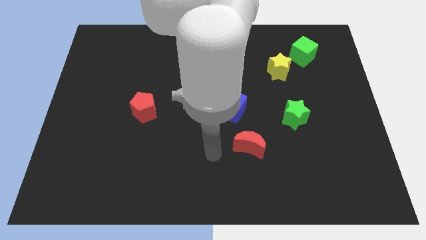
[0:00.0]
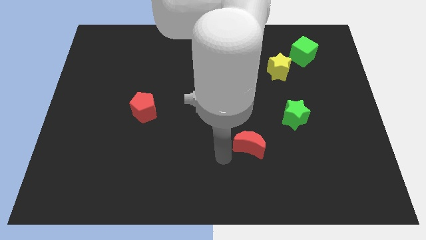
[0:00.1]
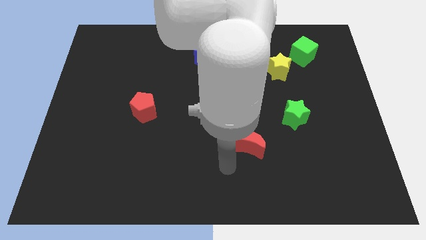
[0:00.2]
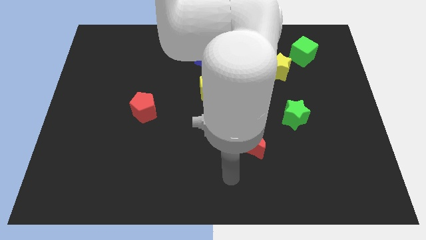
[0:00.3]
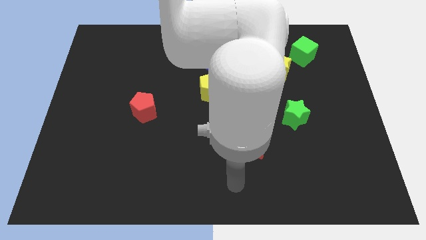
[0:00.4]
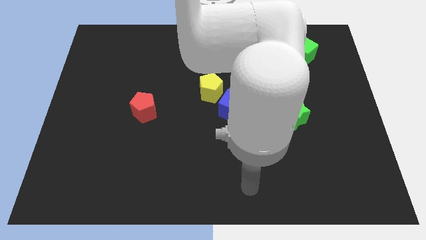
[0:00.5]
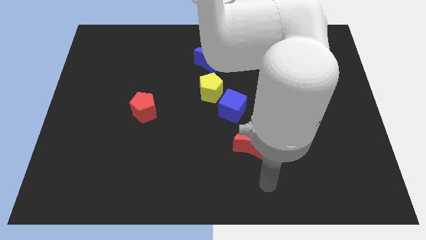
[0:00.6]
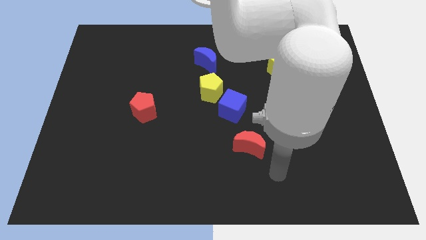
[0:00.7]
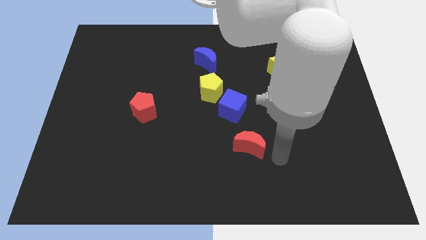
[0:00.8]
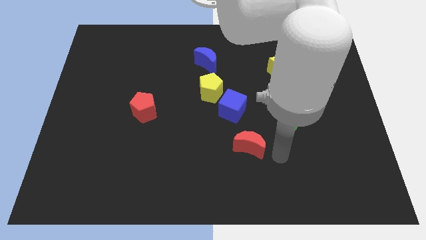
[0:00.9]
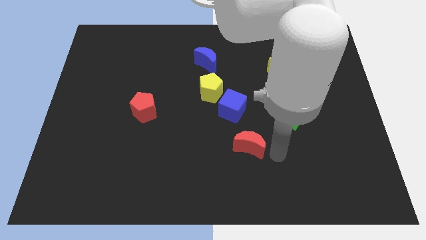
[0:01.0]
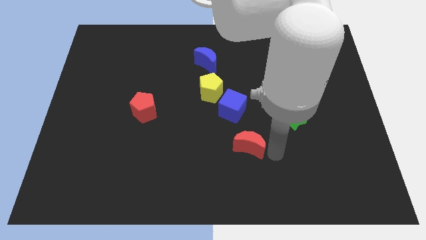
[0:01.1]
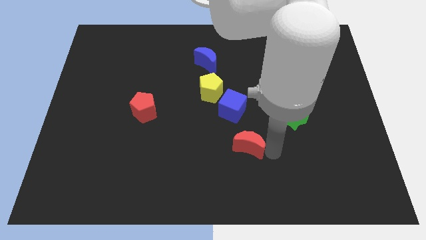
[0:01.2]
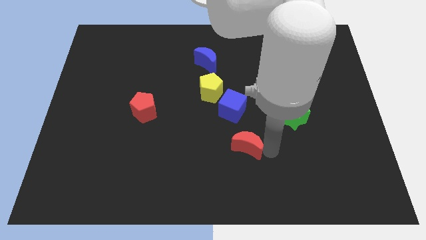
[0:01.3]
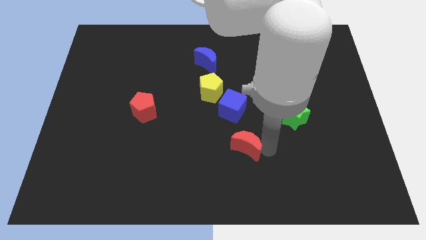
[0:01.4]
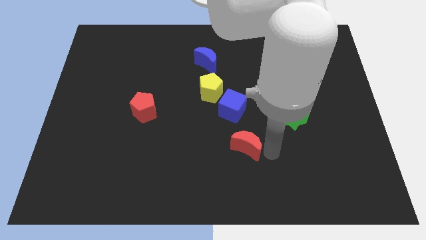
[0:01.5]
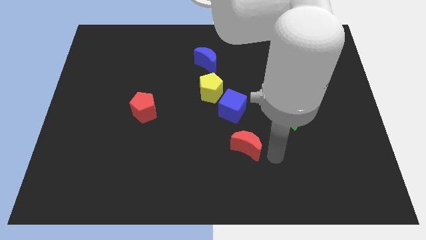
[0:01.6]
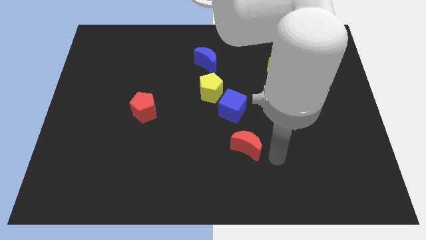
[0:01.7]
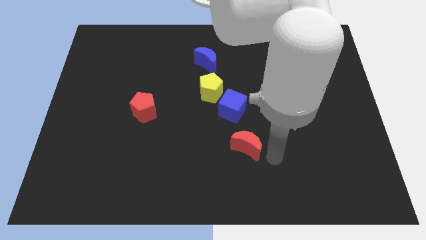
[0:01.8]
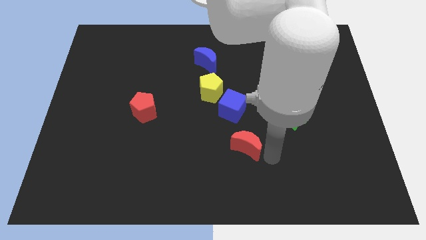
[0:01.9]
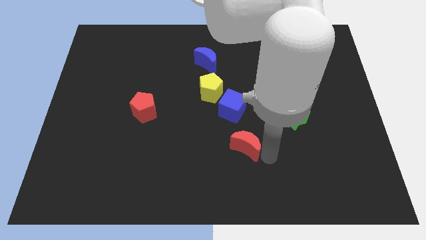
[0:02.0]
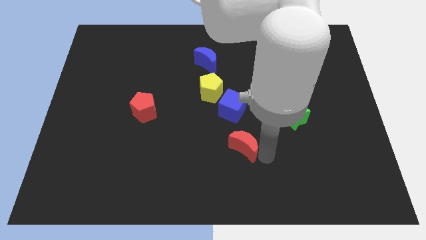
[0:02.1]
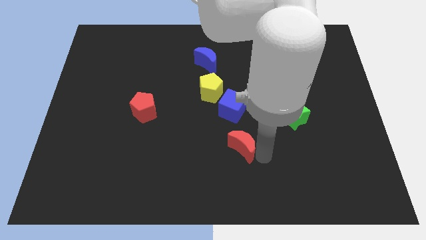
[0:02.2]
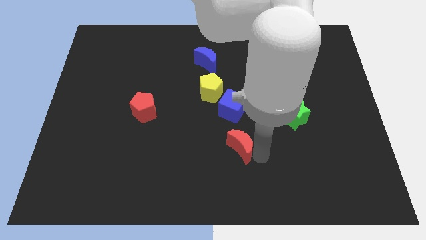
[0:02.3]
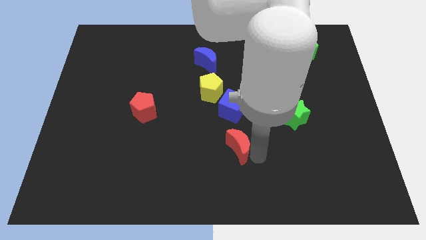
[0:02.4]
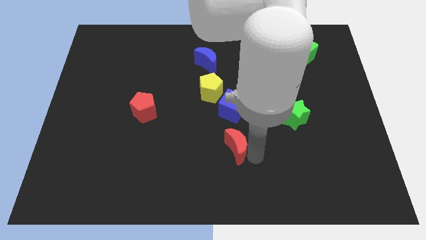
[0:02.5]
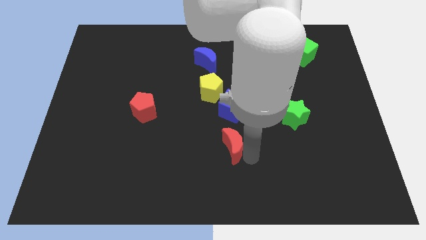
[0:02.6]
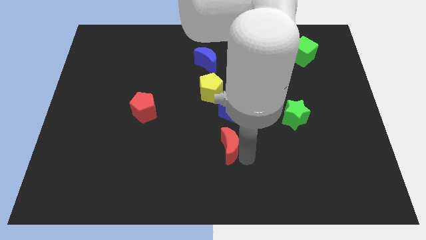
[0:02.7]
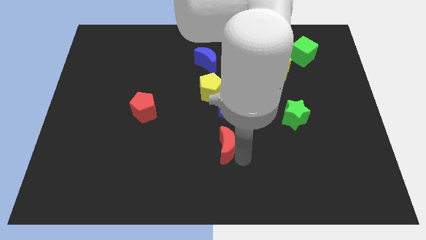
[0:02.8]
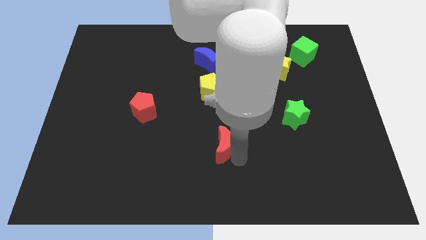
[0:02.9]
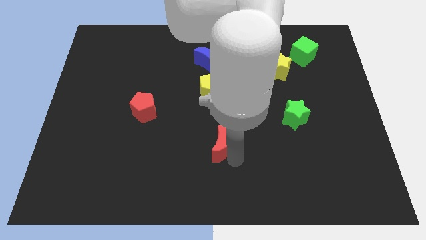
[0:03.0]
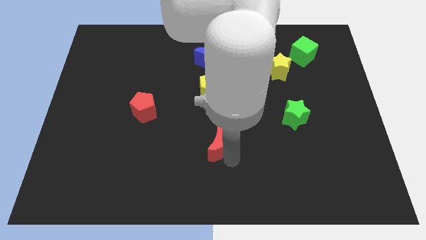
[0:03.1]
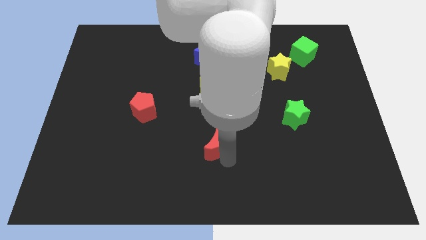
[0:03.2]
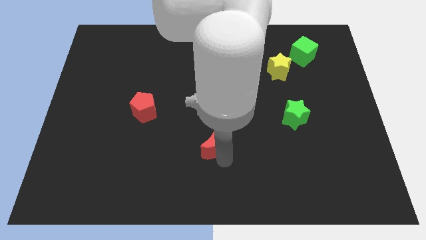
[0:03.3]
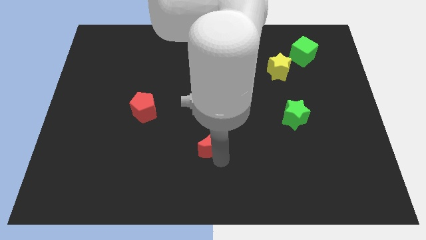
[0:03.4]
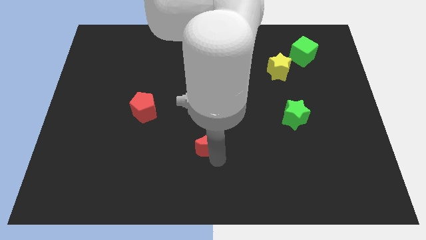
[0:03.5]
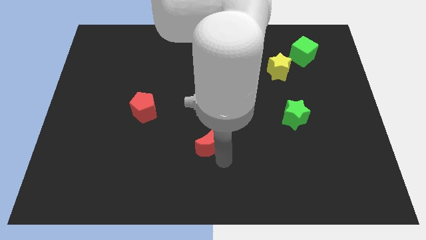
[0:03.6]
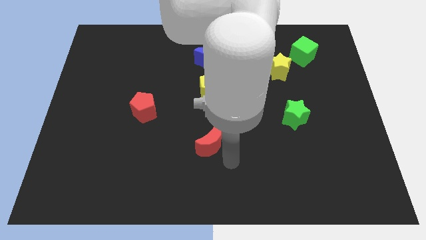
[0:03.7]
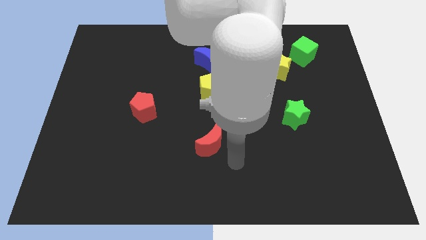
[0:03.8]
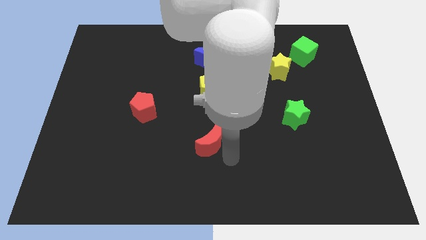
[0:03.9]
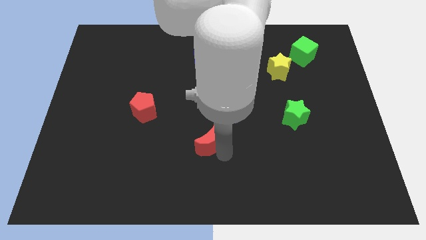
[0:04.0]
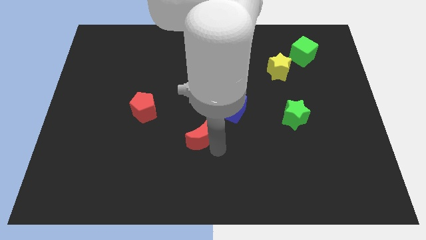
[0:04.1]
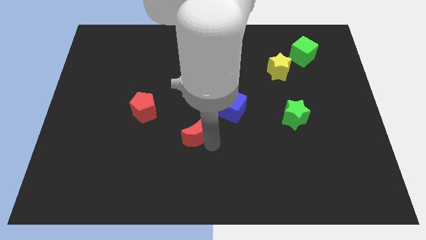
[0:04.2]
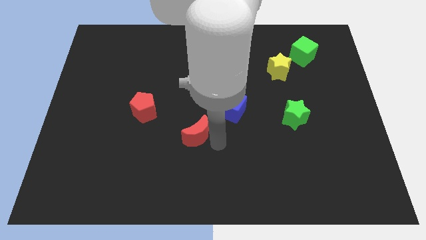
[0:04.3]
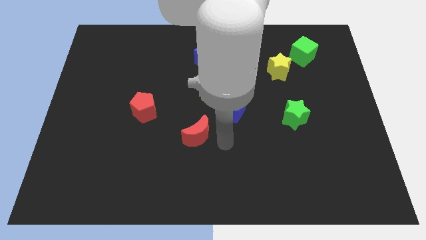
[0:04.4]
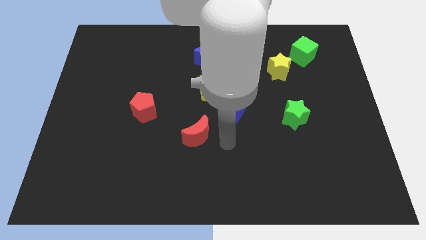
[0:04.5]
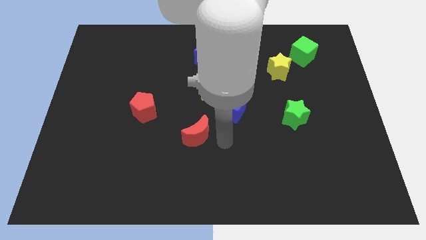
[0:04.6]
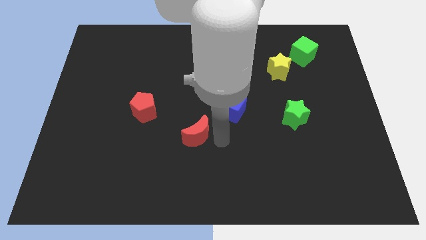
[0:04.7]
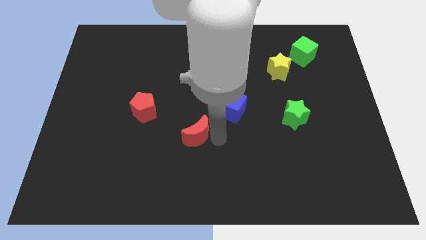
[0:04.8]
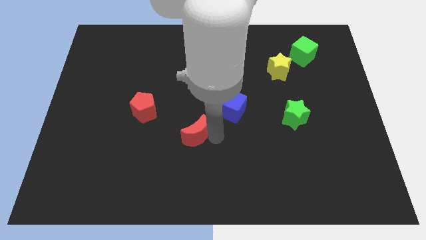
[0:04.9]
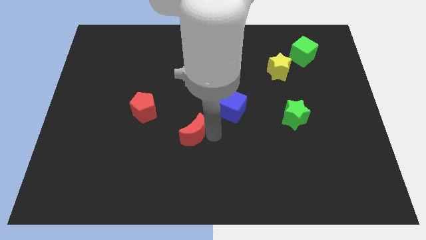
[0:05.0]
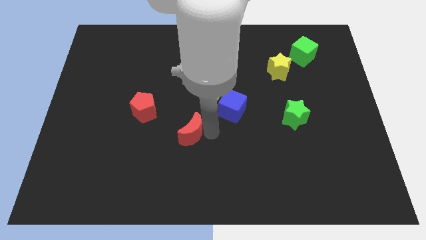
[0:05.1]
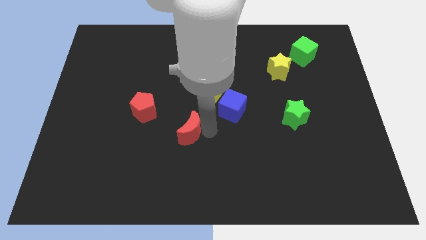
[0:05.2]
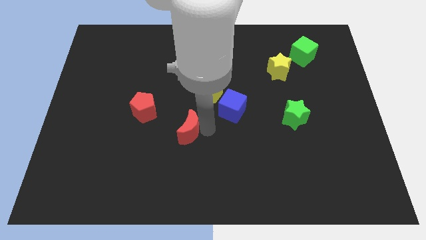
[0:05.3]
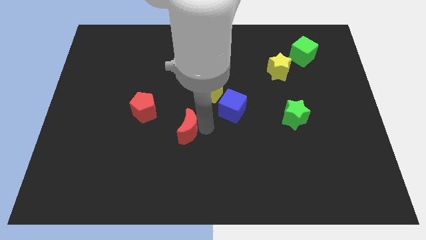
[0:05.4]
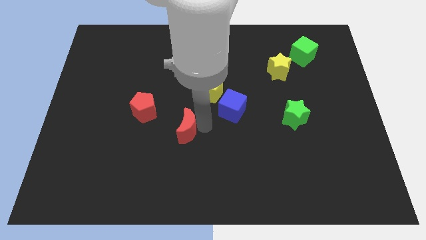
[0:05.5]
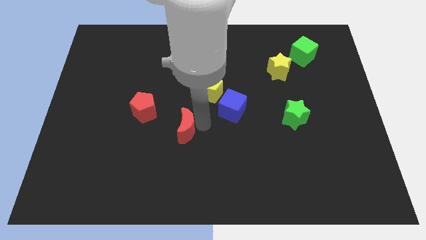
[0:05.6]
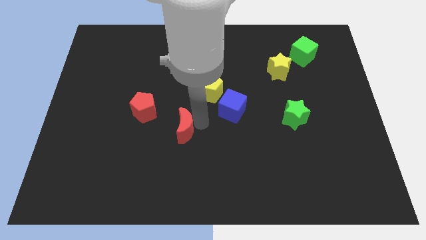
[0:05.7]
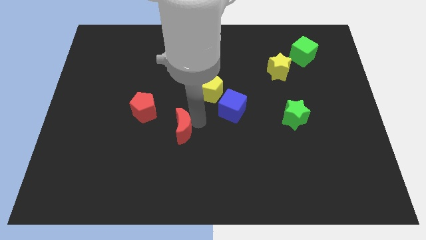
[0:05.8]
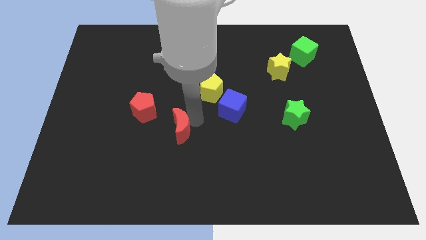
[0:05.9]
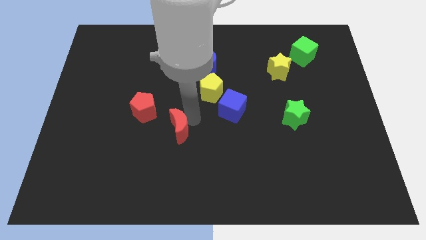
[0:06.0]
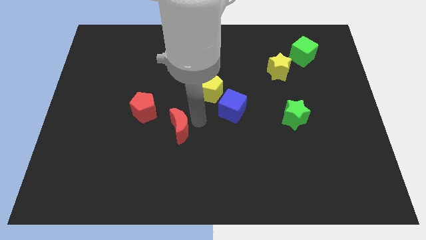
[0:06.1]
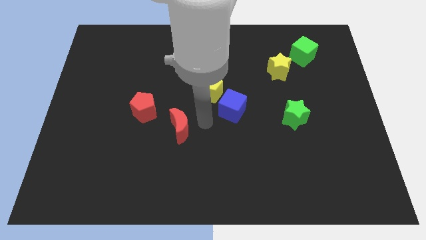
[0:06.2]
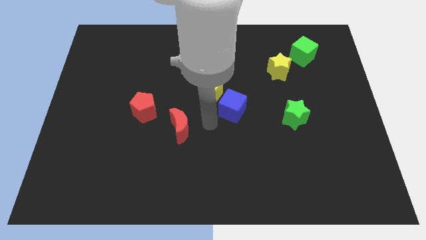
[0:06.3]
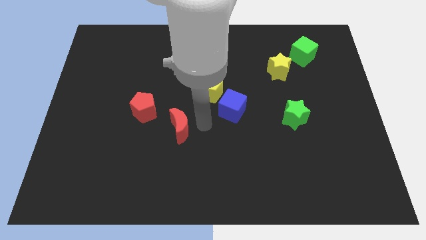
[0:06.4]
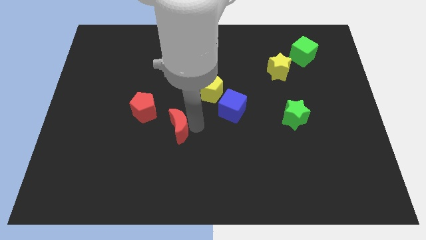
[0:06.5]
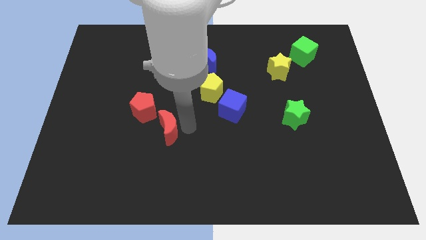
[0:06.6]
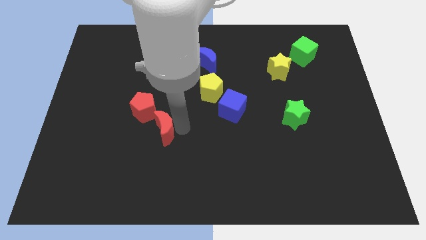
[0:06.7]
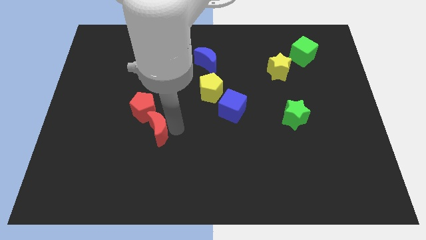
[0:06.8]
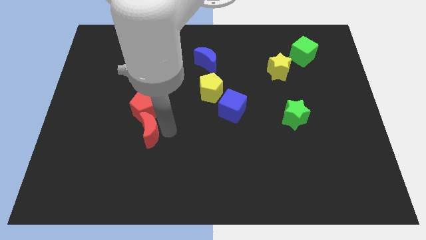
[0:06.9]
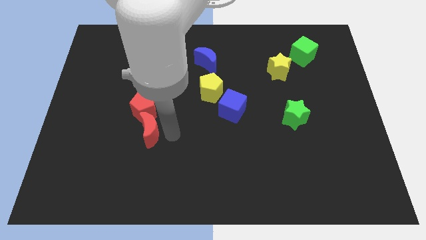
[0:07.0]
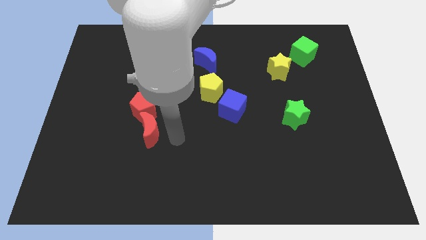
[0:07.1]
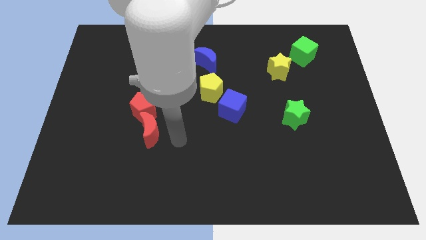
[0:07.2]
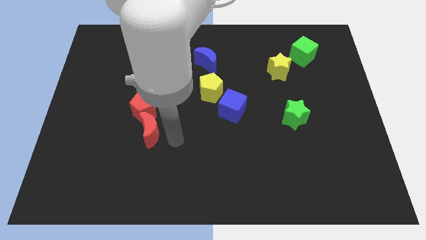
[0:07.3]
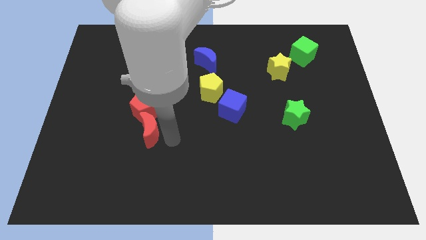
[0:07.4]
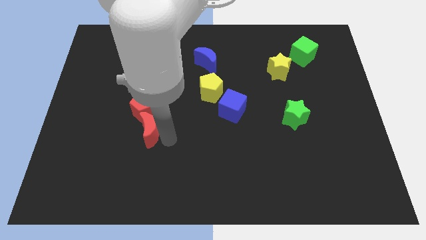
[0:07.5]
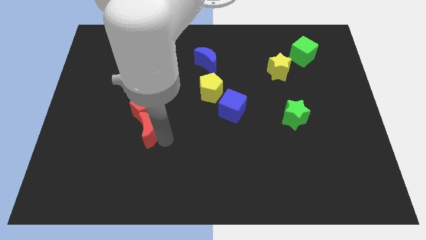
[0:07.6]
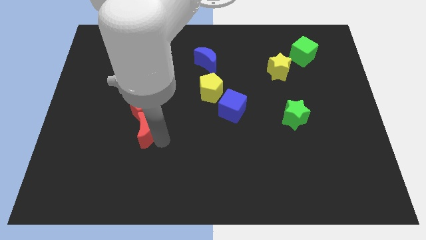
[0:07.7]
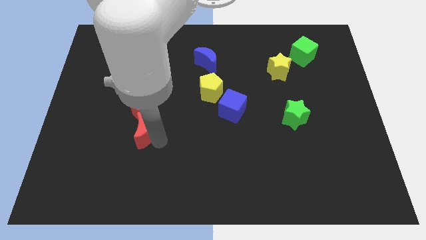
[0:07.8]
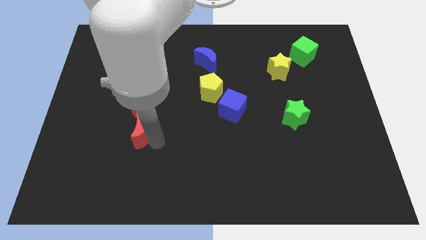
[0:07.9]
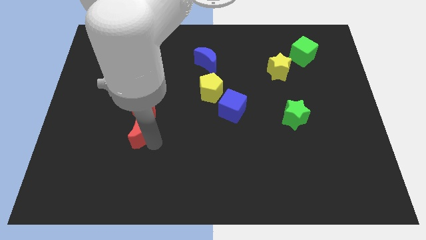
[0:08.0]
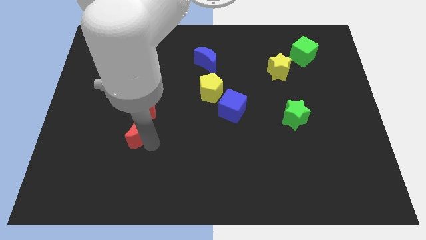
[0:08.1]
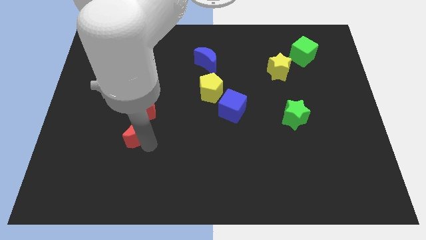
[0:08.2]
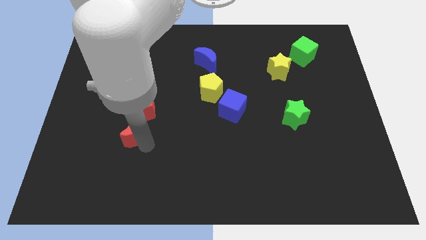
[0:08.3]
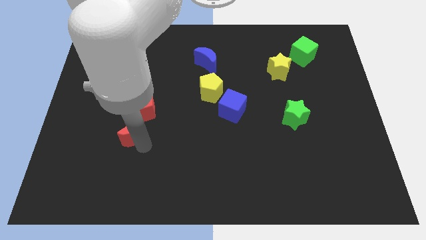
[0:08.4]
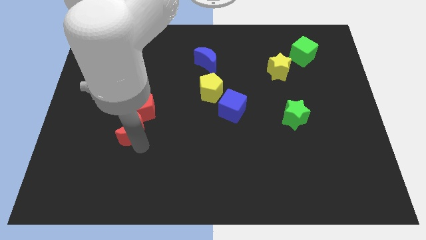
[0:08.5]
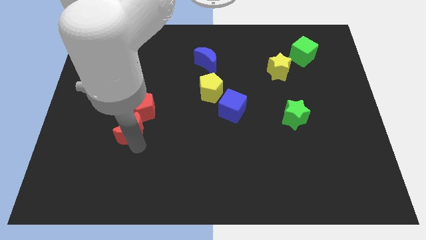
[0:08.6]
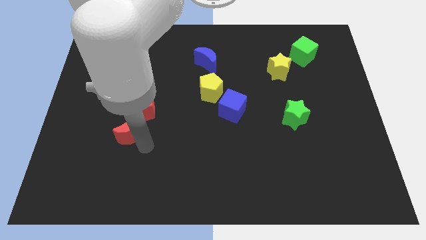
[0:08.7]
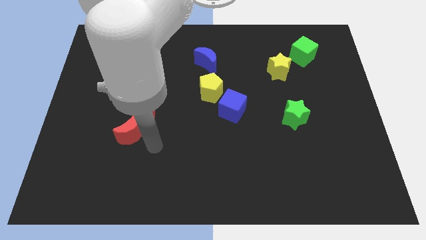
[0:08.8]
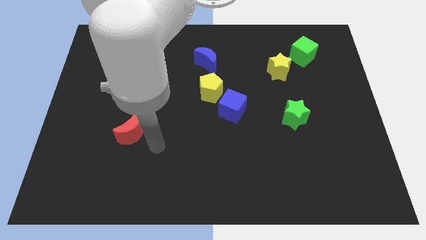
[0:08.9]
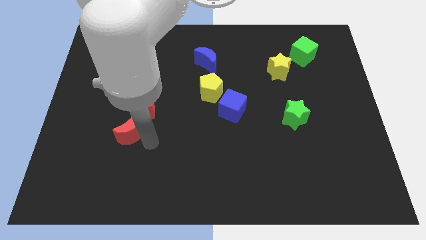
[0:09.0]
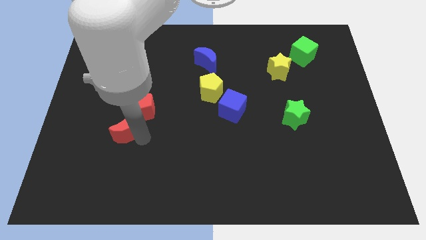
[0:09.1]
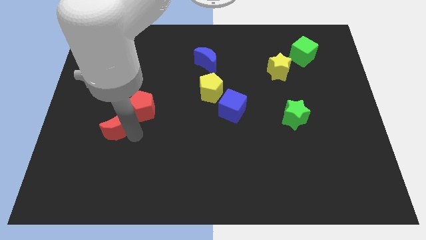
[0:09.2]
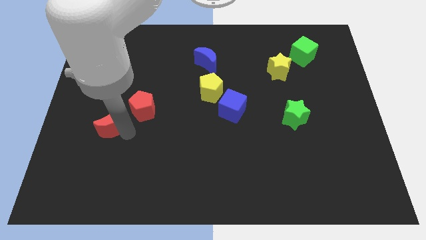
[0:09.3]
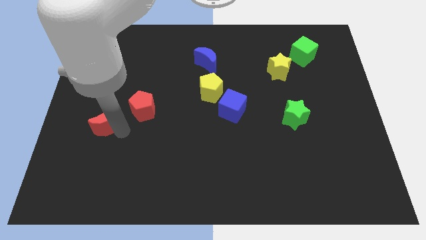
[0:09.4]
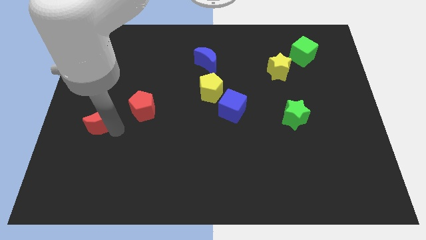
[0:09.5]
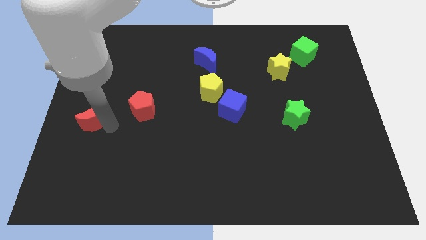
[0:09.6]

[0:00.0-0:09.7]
move the red moon to the left side
